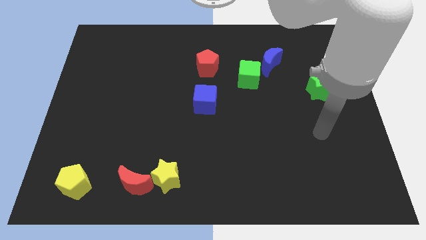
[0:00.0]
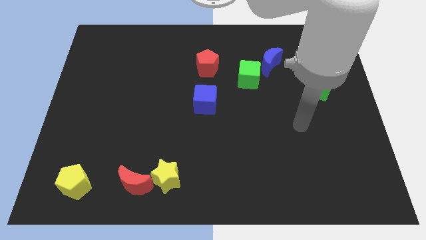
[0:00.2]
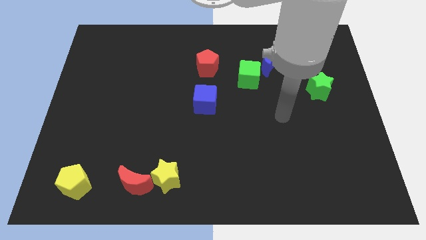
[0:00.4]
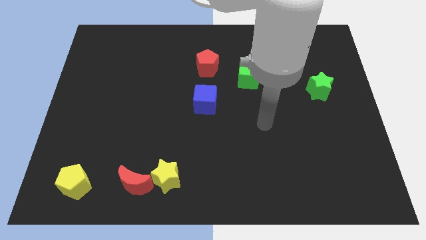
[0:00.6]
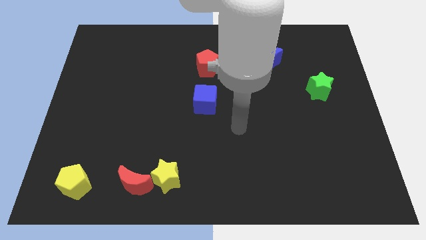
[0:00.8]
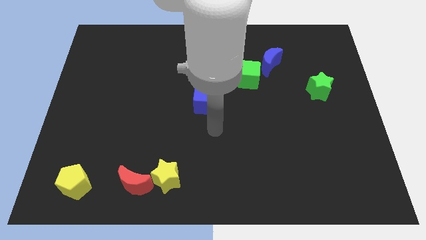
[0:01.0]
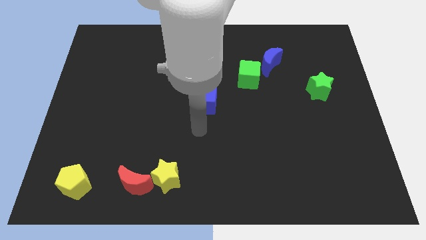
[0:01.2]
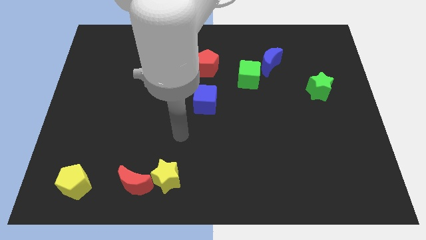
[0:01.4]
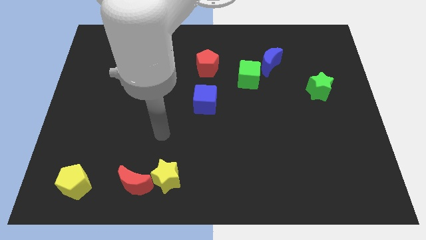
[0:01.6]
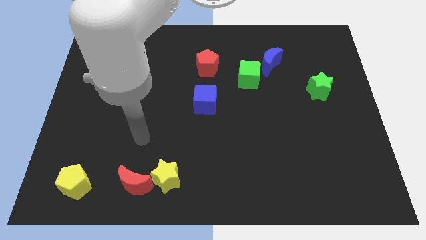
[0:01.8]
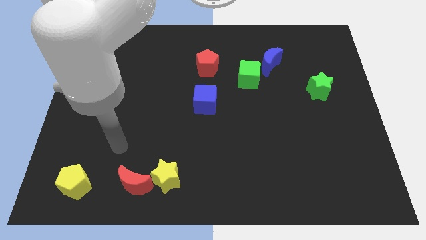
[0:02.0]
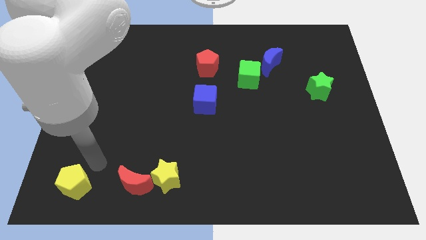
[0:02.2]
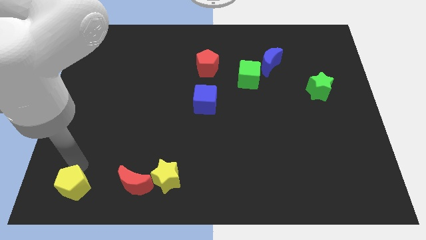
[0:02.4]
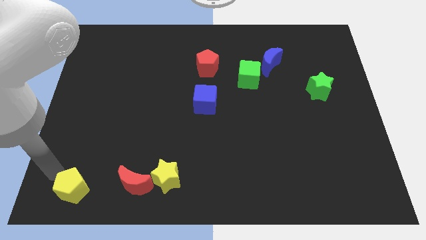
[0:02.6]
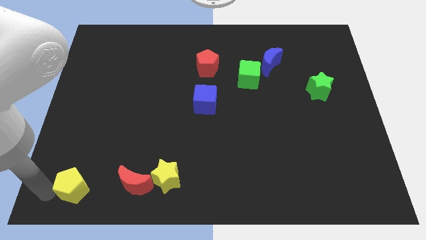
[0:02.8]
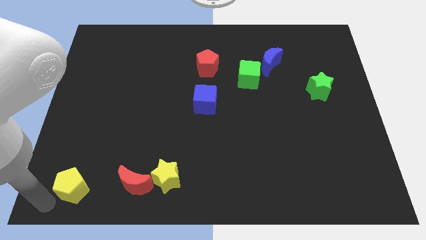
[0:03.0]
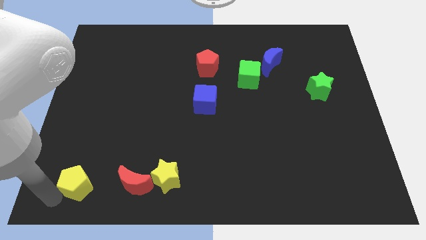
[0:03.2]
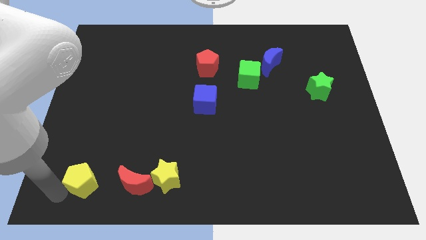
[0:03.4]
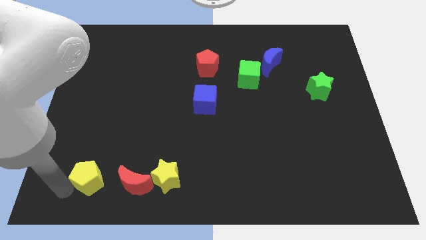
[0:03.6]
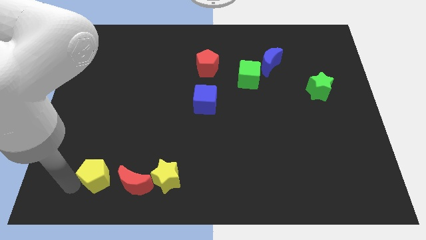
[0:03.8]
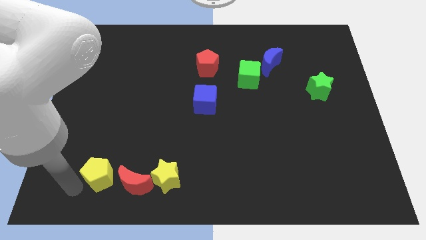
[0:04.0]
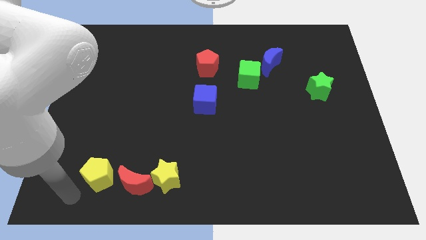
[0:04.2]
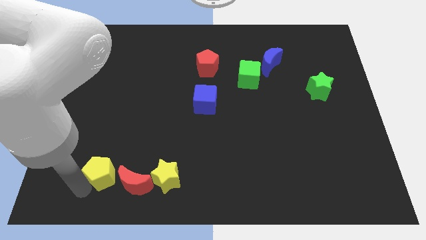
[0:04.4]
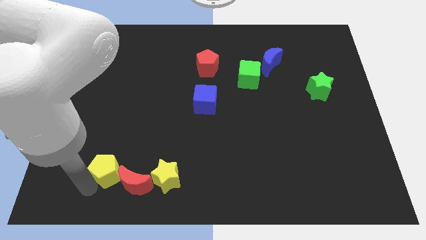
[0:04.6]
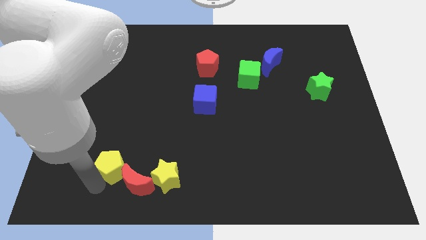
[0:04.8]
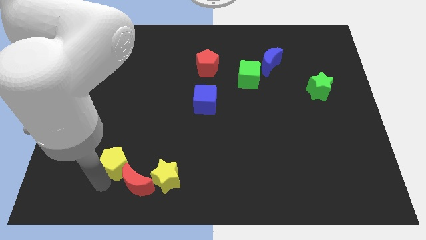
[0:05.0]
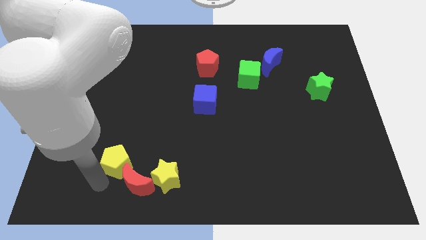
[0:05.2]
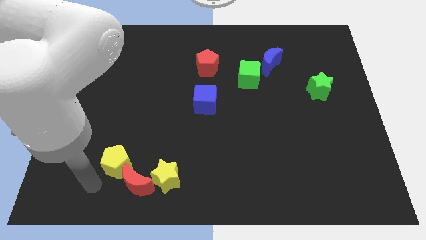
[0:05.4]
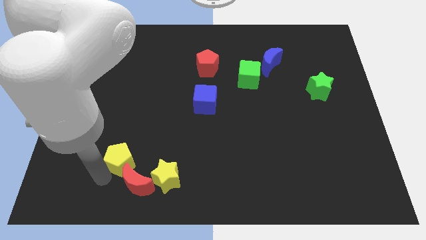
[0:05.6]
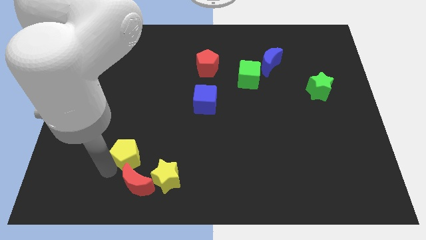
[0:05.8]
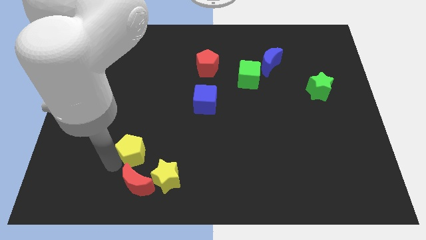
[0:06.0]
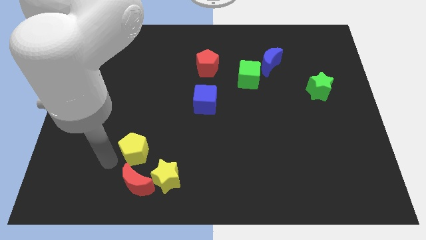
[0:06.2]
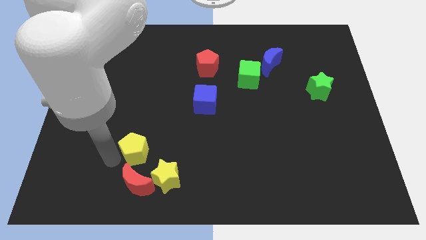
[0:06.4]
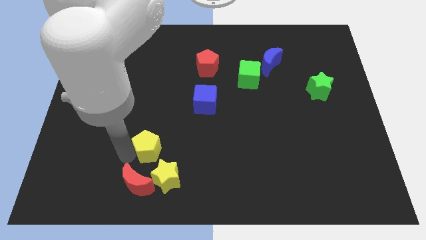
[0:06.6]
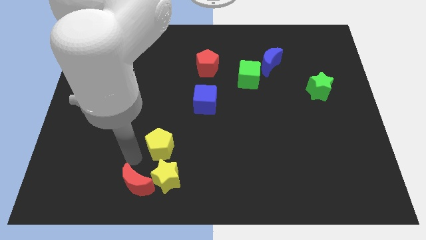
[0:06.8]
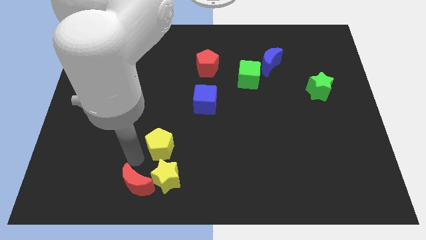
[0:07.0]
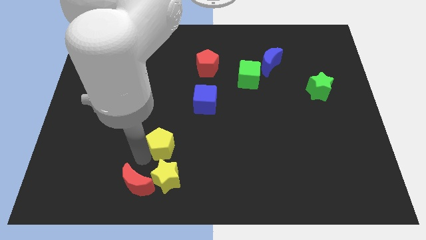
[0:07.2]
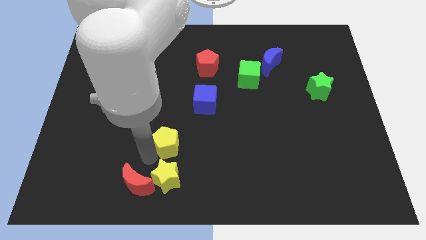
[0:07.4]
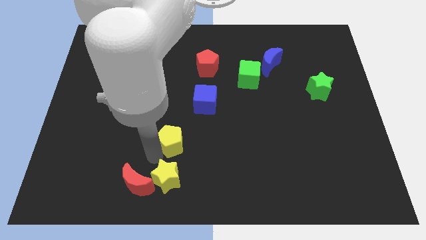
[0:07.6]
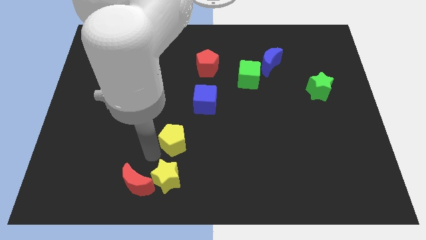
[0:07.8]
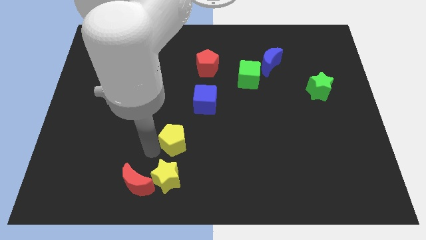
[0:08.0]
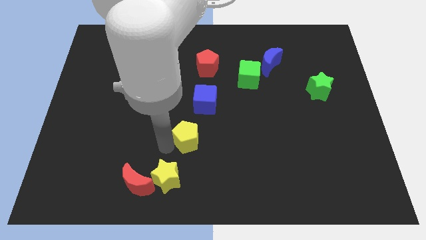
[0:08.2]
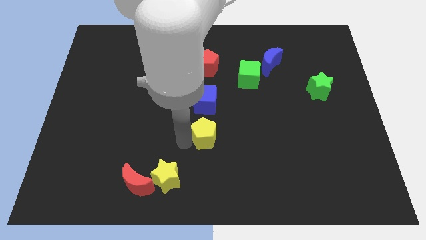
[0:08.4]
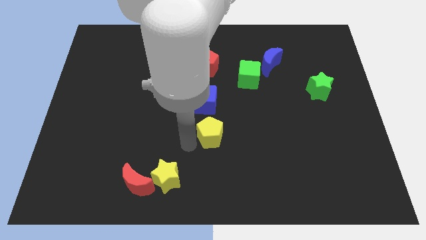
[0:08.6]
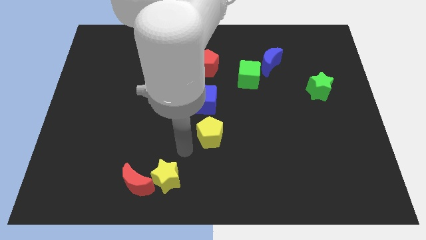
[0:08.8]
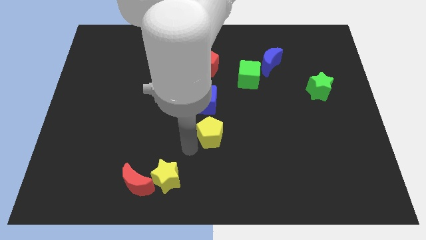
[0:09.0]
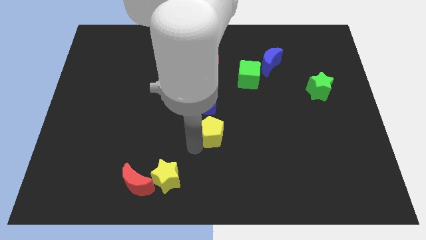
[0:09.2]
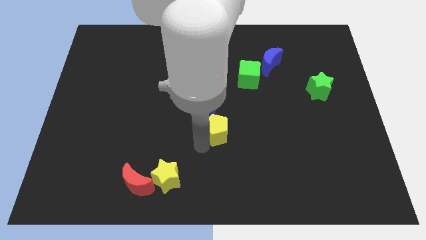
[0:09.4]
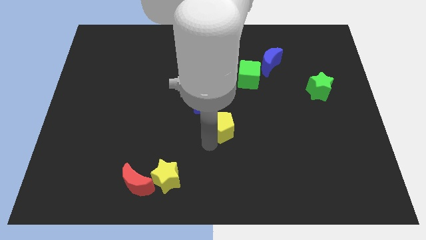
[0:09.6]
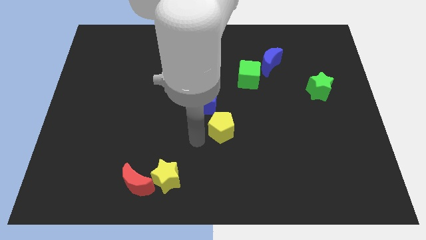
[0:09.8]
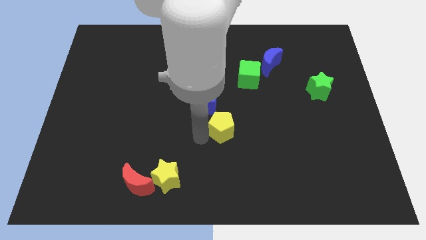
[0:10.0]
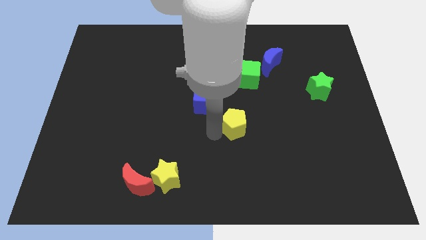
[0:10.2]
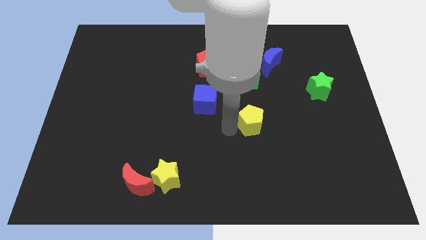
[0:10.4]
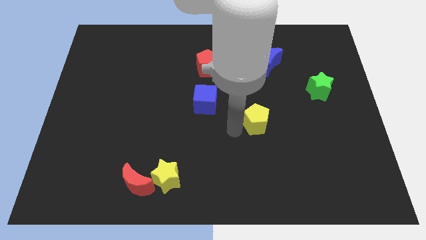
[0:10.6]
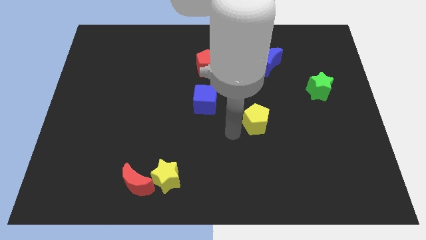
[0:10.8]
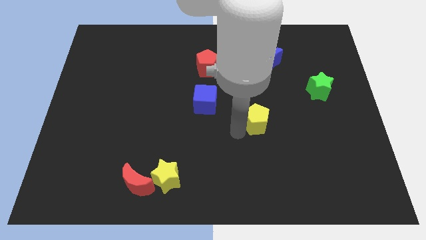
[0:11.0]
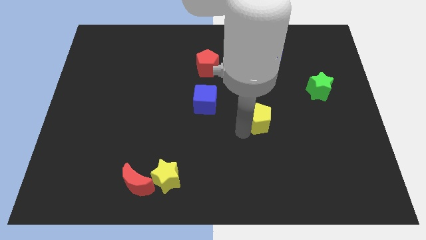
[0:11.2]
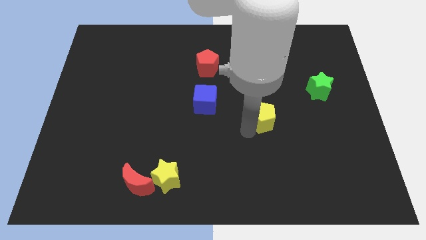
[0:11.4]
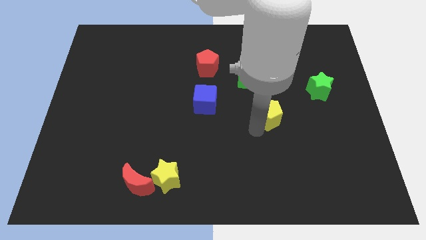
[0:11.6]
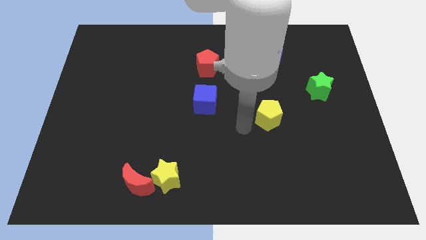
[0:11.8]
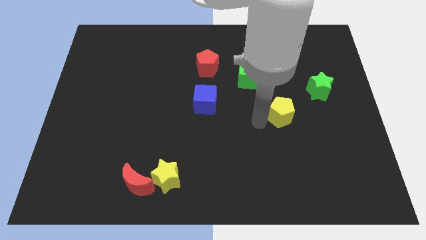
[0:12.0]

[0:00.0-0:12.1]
put the yellow pentagon to the bottom left side of the green star

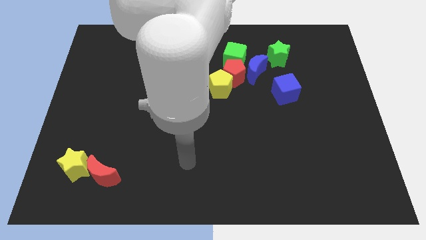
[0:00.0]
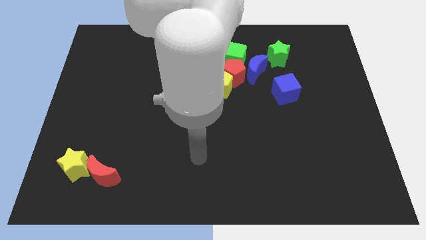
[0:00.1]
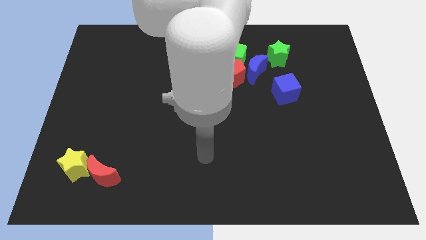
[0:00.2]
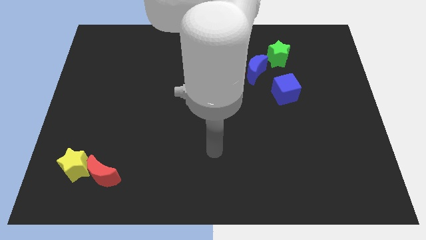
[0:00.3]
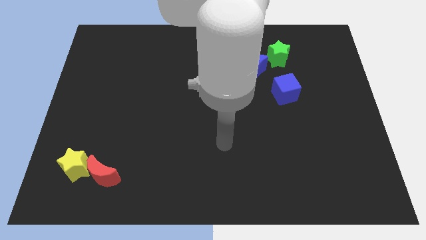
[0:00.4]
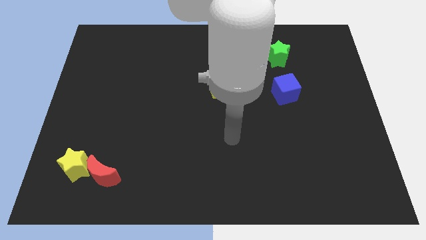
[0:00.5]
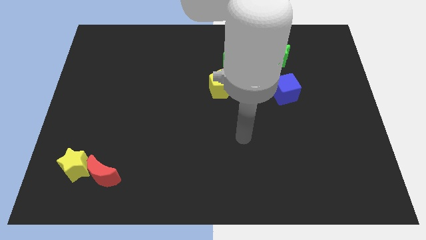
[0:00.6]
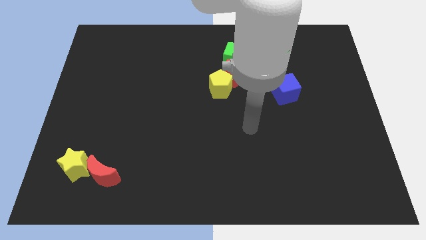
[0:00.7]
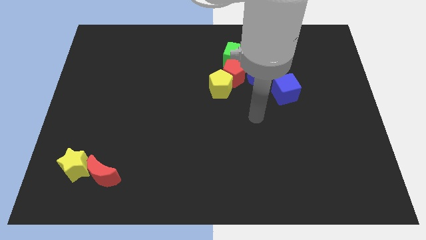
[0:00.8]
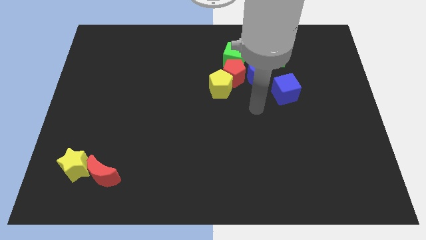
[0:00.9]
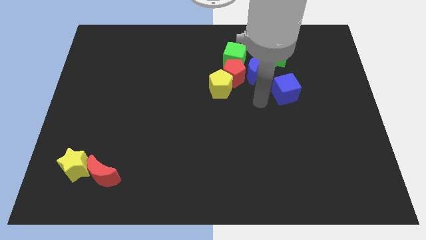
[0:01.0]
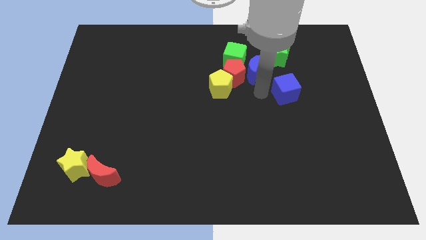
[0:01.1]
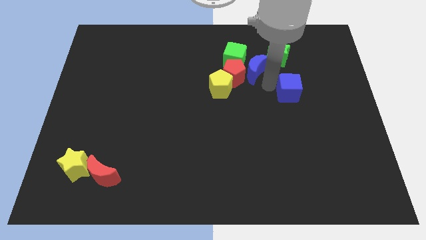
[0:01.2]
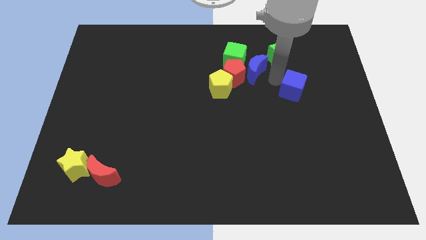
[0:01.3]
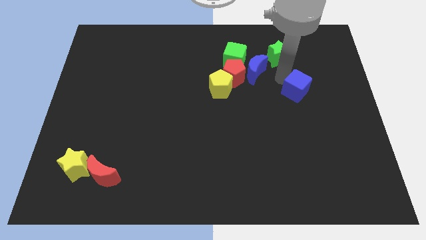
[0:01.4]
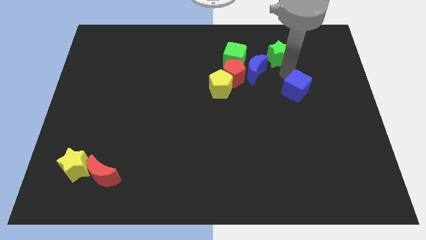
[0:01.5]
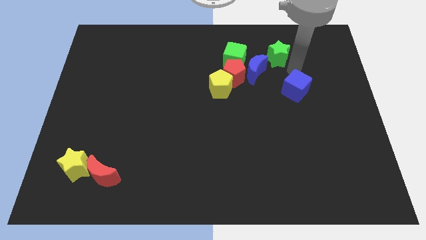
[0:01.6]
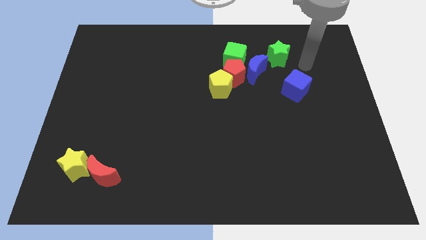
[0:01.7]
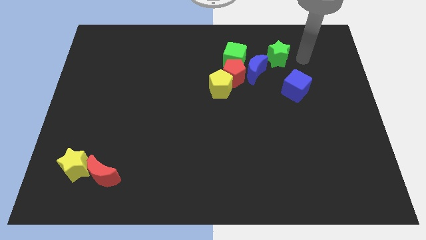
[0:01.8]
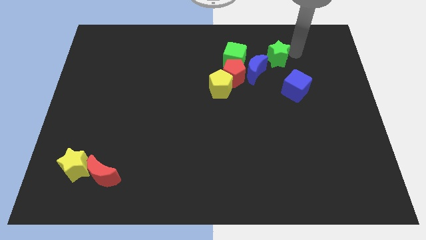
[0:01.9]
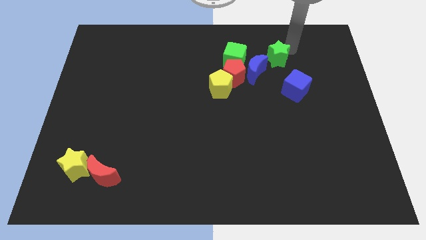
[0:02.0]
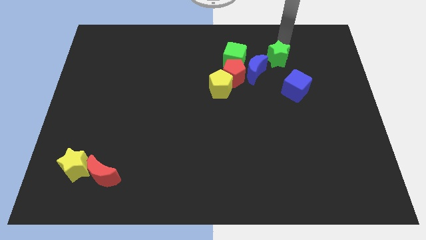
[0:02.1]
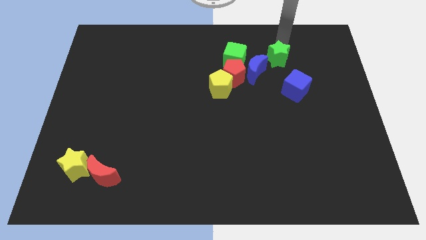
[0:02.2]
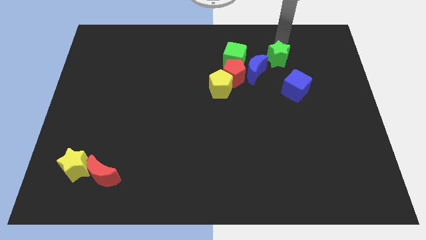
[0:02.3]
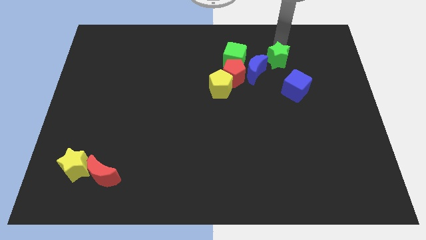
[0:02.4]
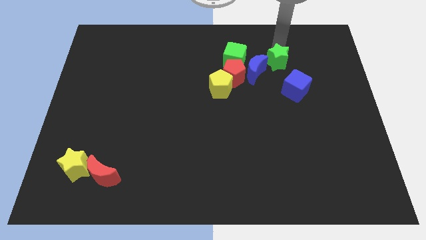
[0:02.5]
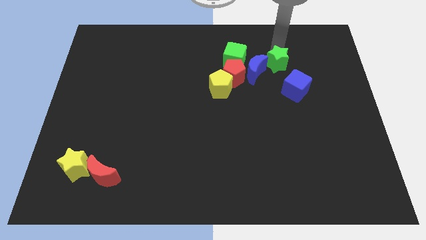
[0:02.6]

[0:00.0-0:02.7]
move the green star to the right side of the red pentagon
